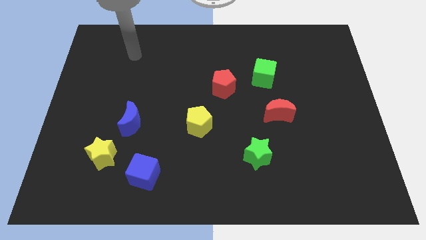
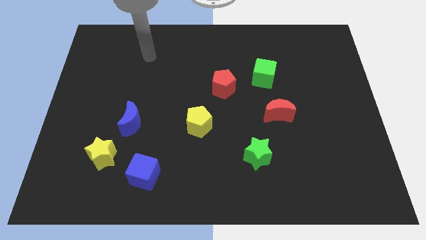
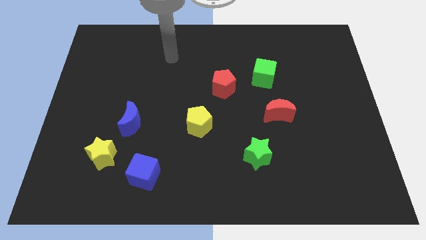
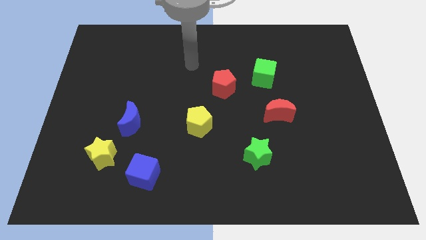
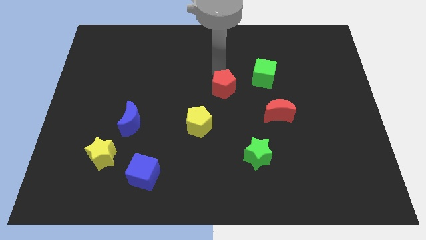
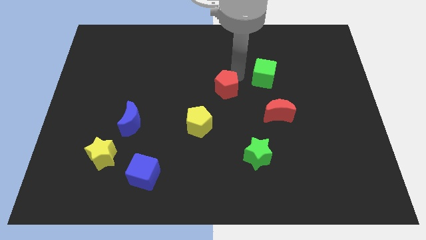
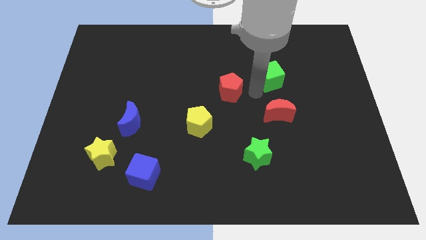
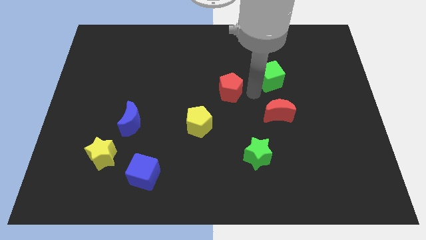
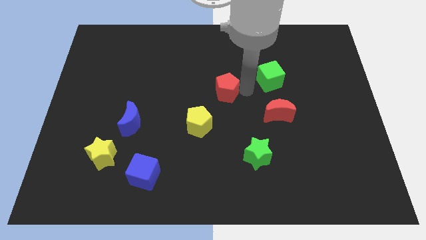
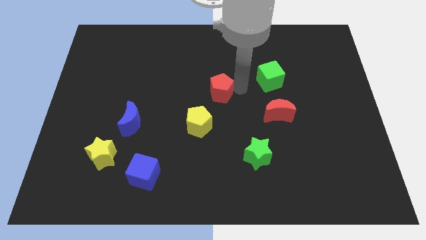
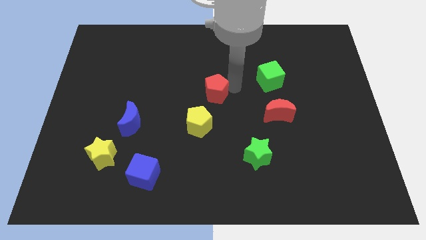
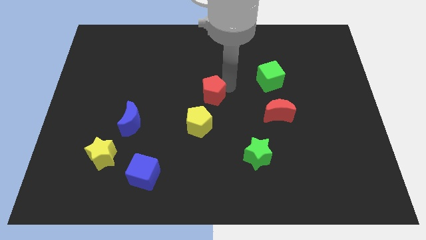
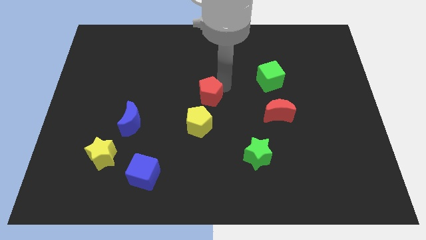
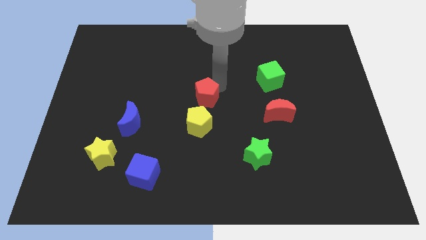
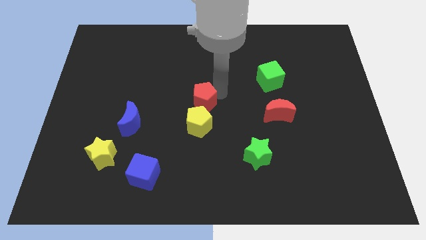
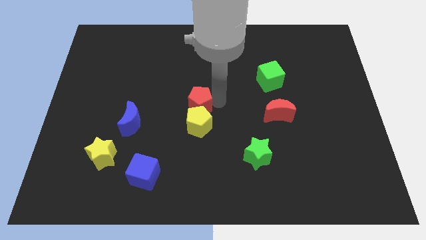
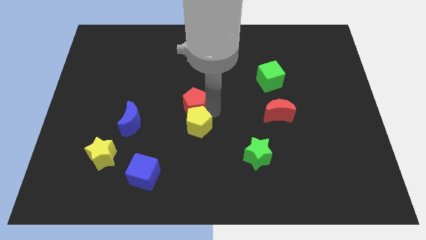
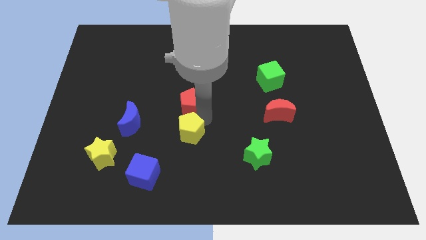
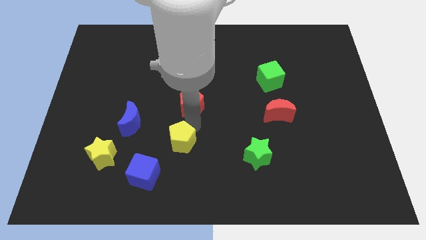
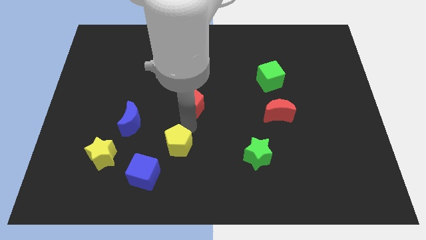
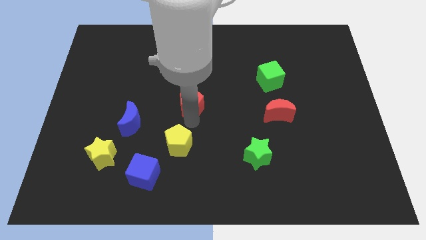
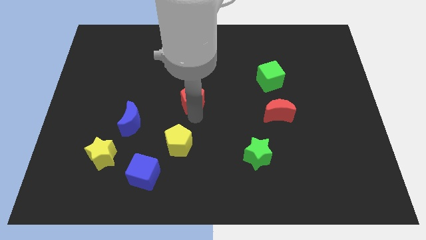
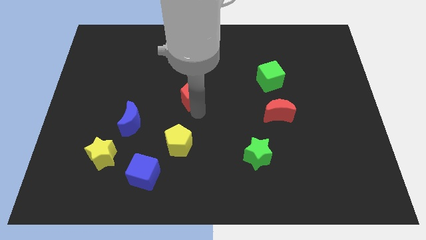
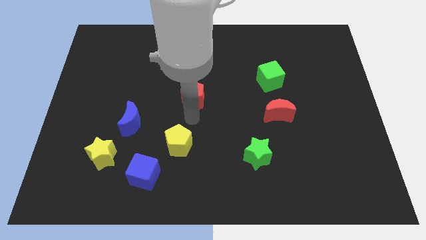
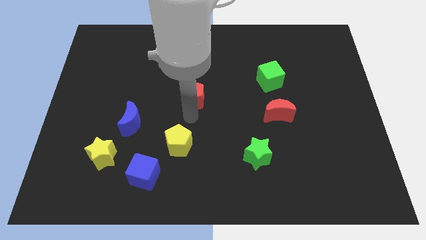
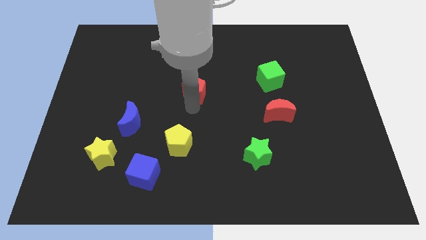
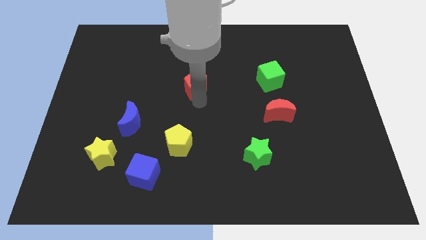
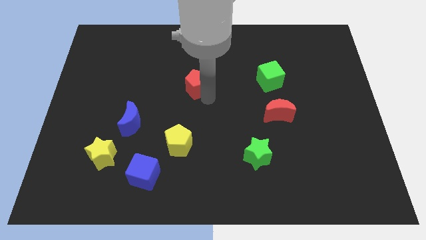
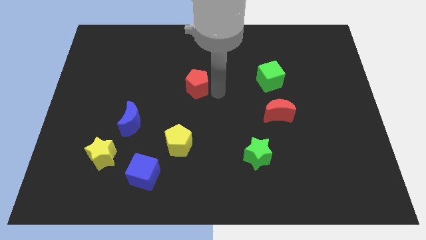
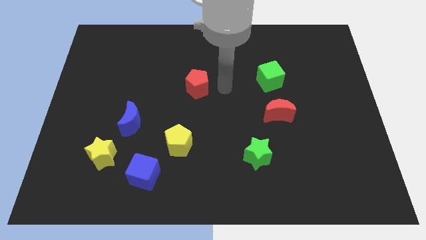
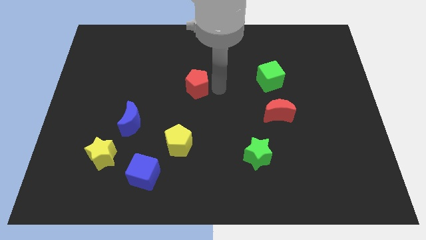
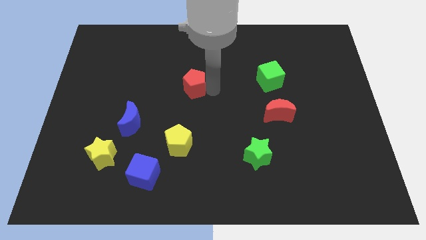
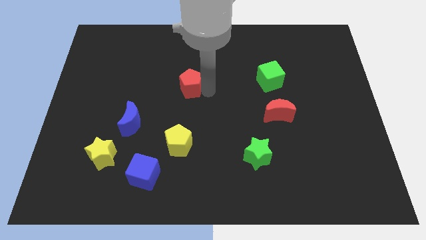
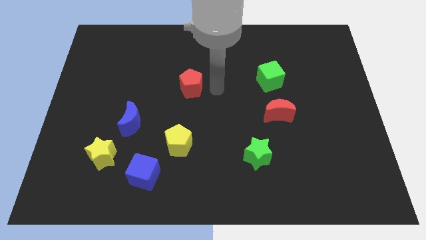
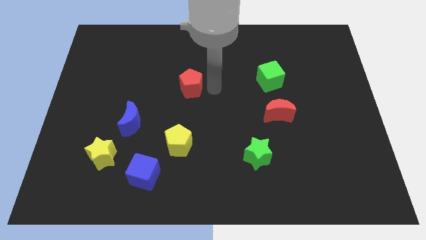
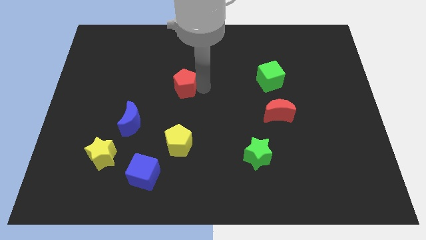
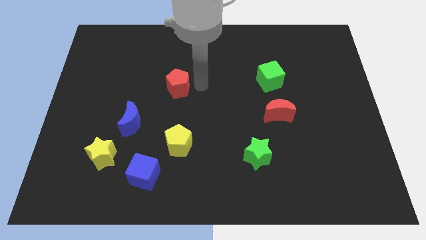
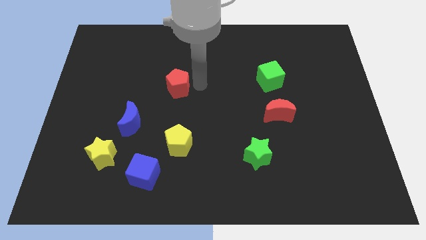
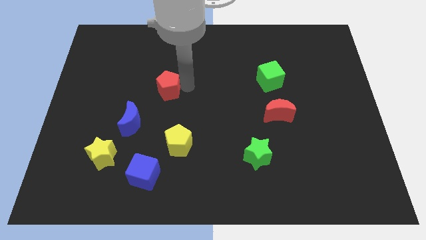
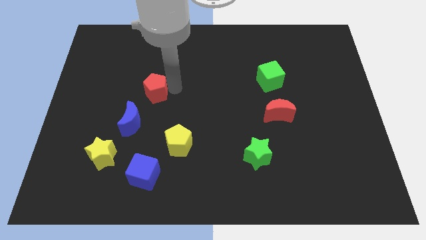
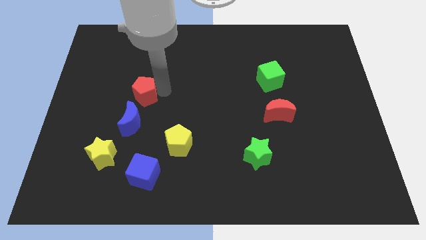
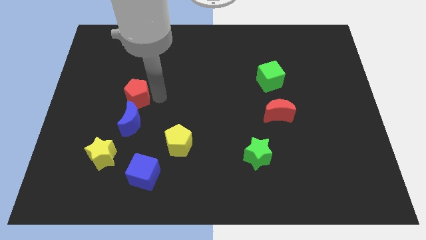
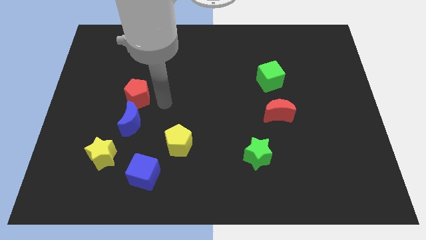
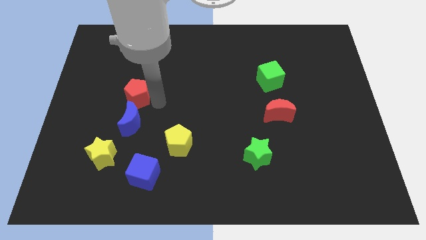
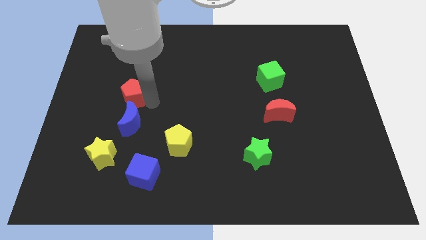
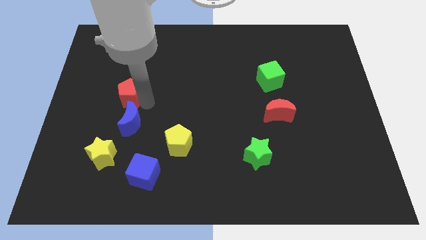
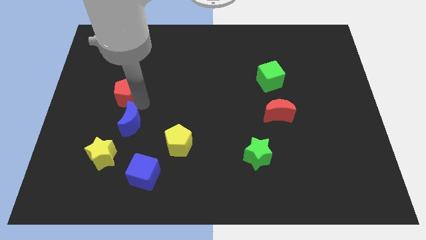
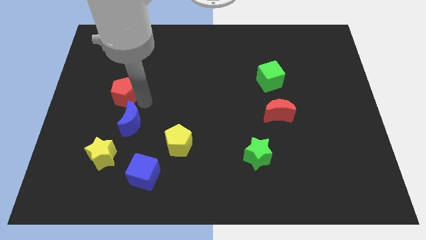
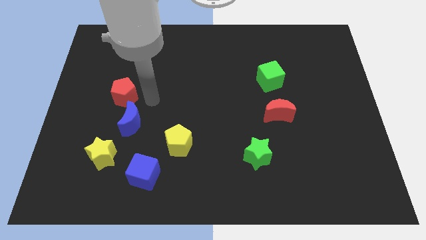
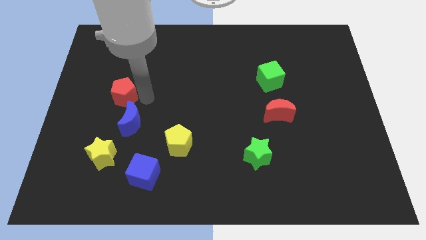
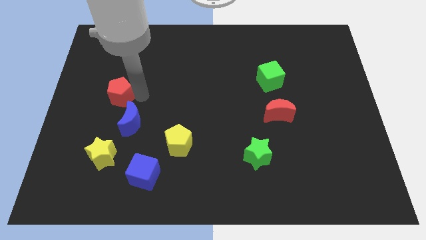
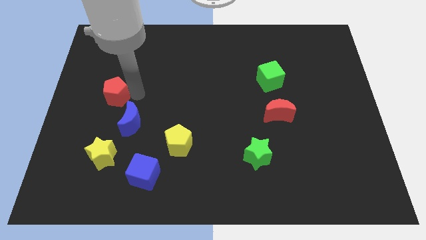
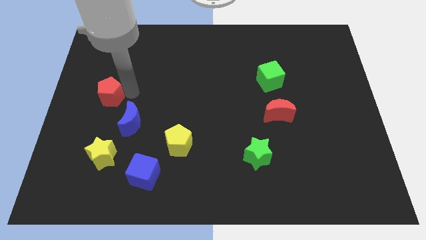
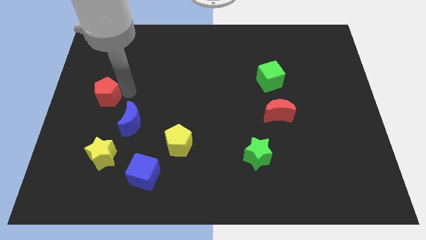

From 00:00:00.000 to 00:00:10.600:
push the red pentagon to the left side of the board

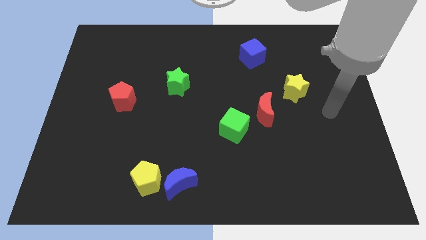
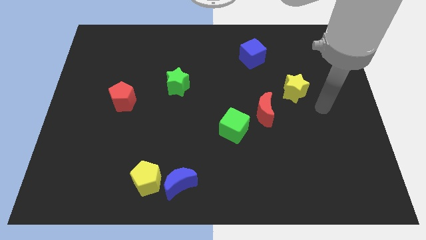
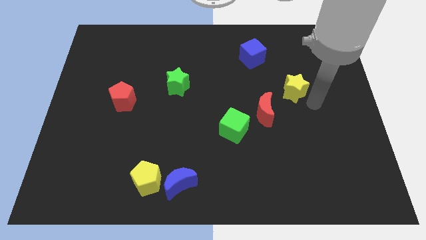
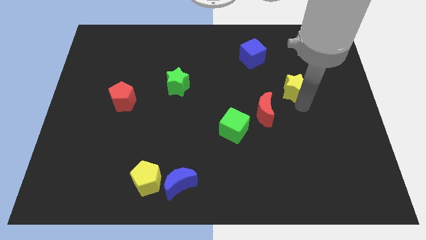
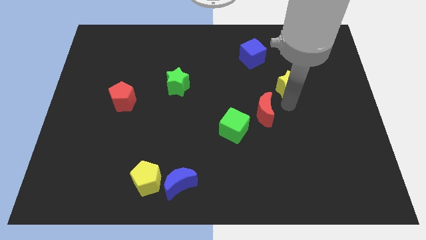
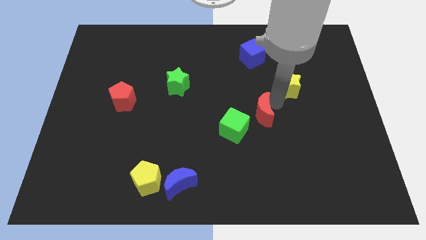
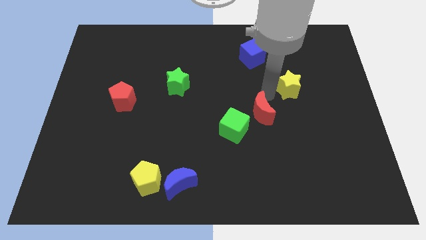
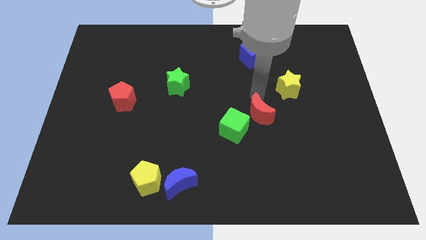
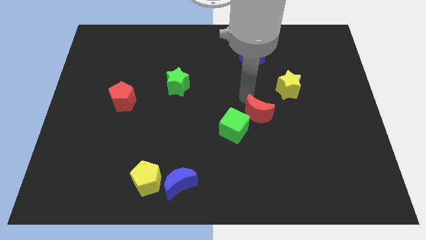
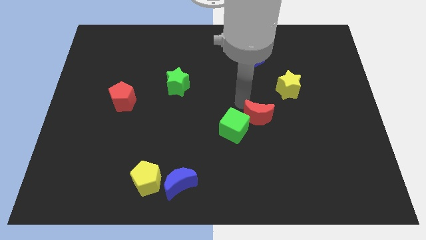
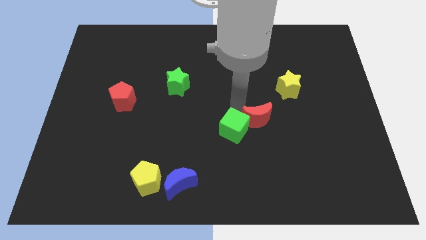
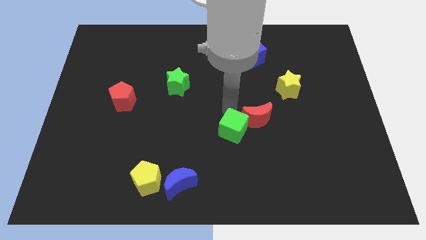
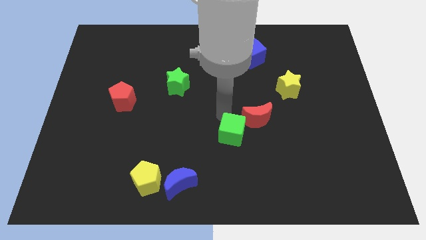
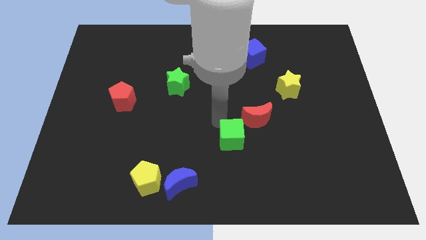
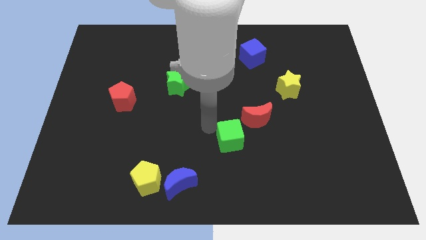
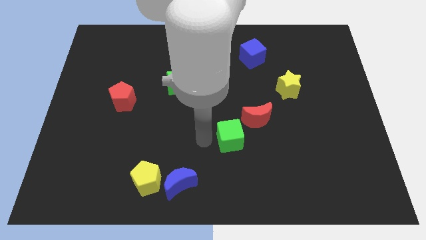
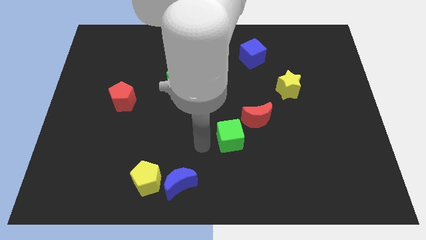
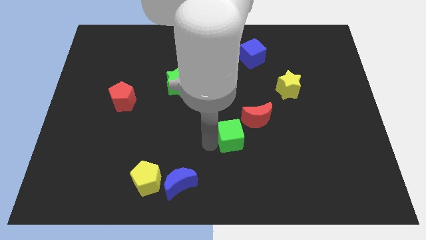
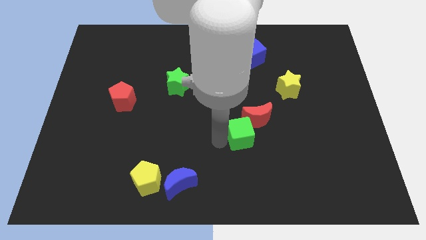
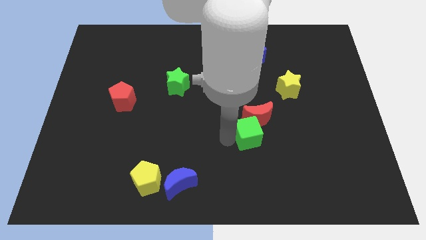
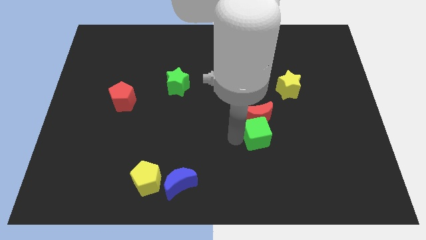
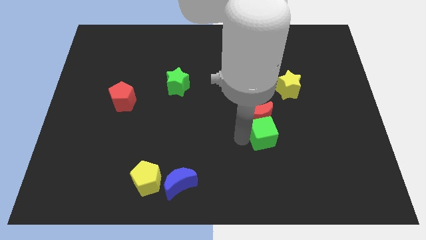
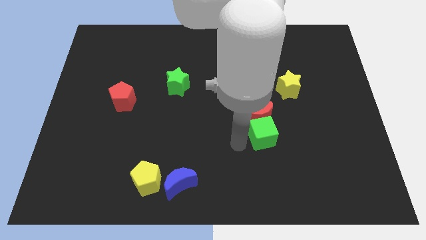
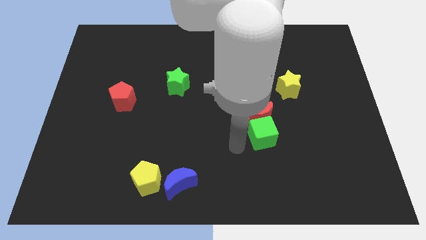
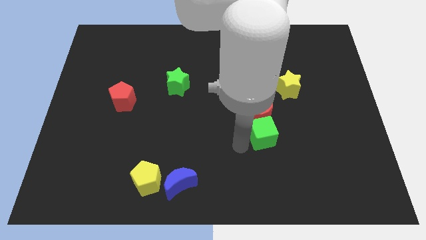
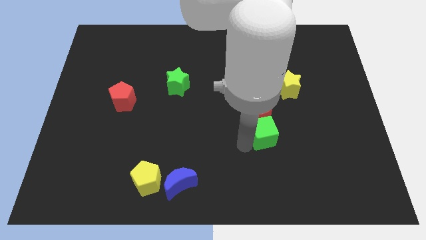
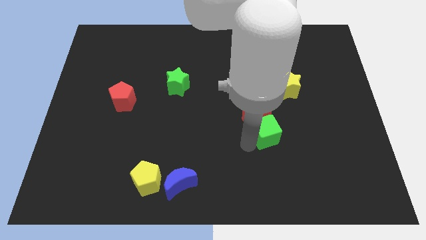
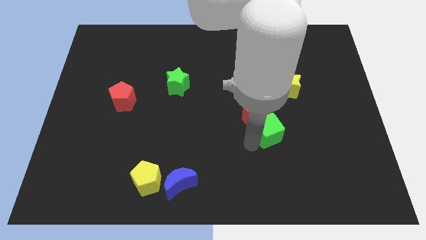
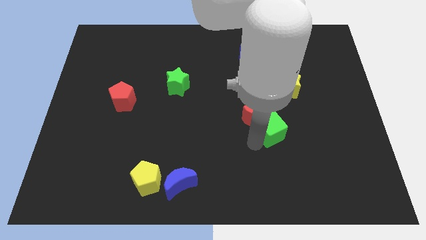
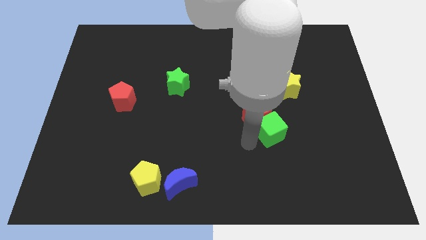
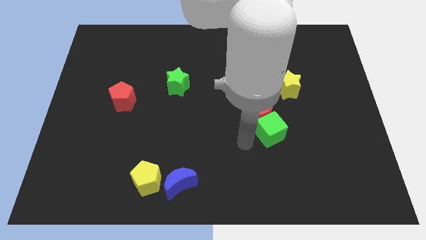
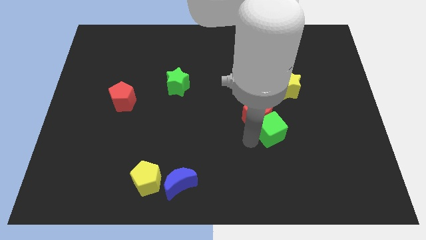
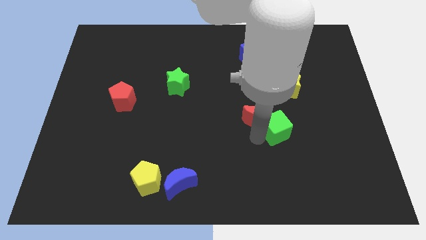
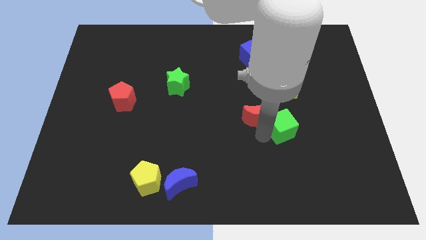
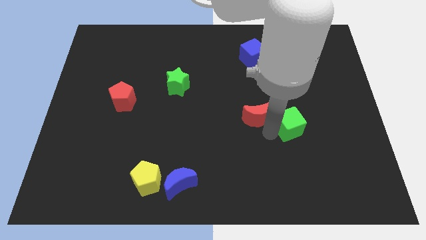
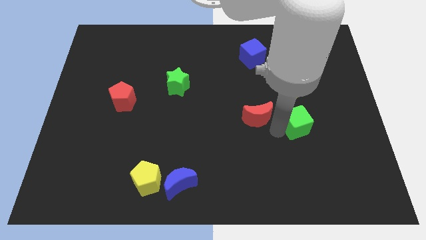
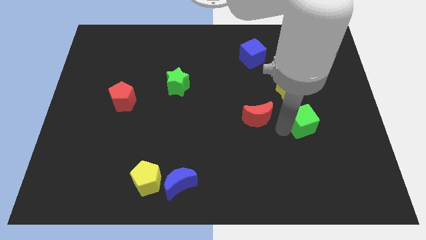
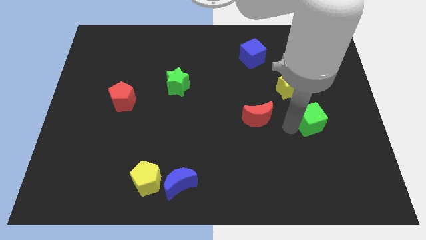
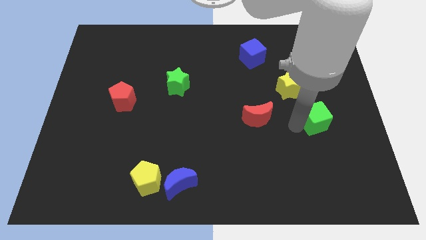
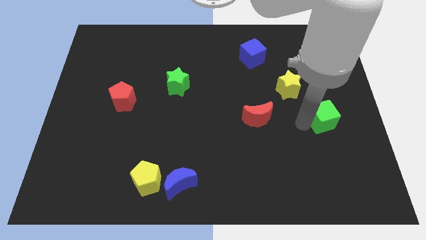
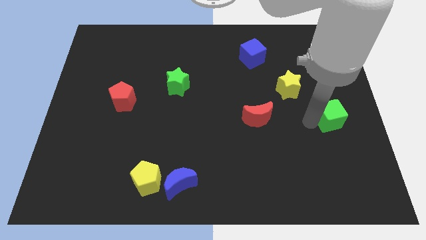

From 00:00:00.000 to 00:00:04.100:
push the green cube to the center right
